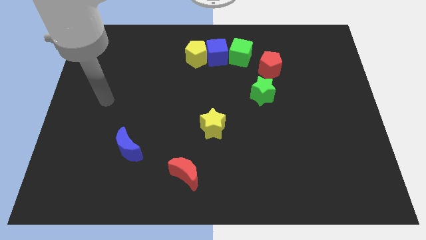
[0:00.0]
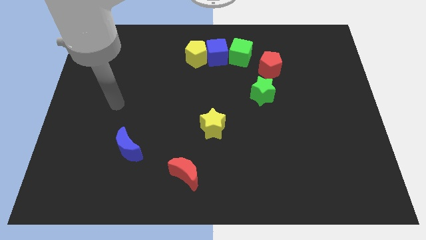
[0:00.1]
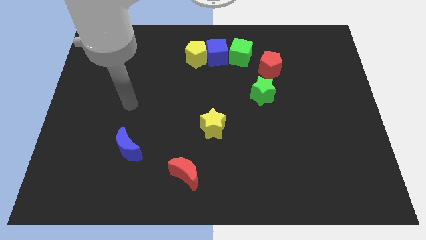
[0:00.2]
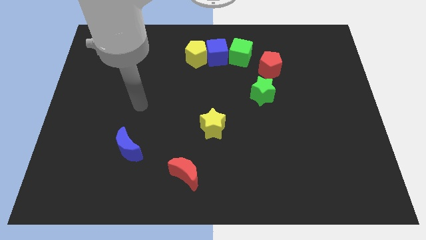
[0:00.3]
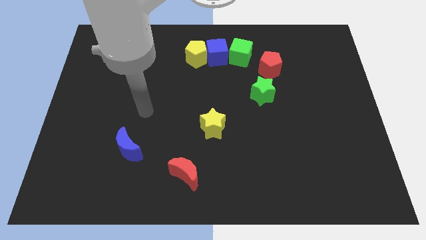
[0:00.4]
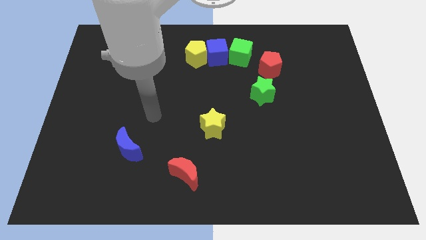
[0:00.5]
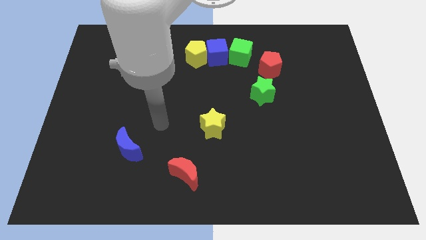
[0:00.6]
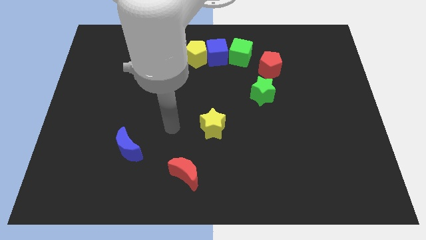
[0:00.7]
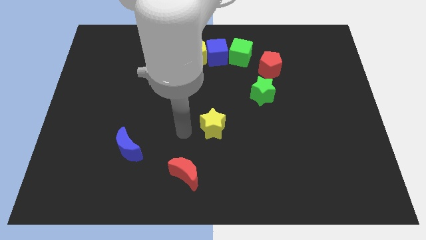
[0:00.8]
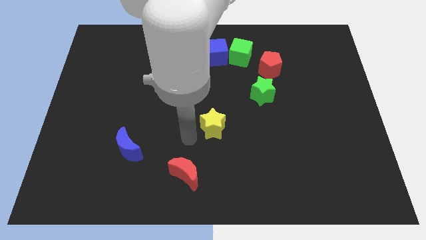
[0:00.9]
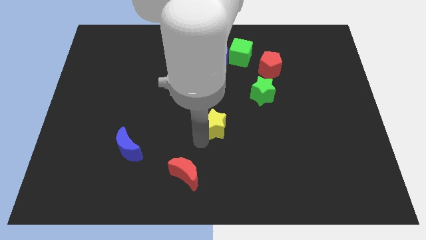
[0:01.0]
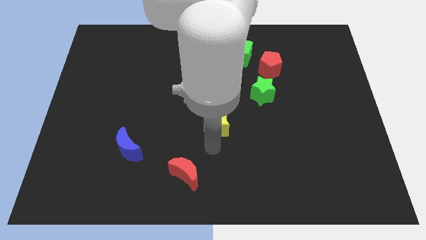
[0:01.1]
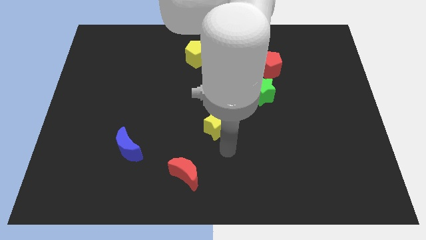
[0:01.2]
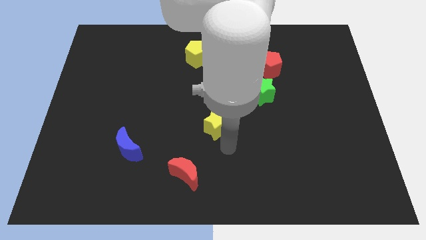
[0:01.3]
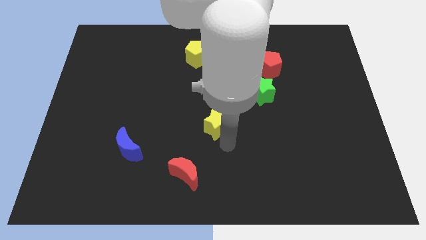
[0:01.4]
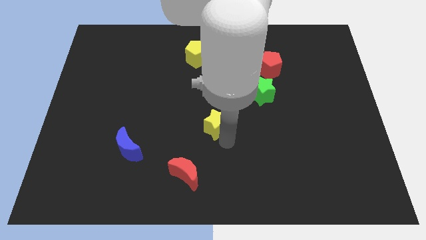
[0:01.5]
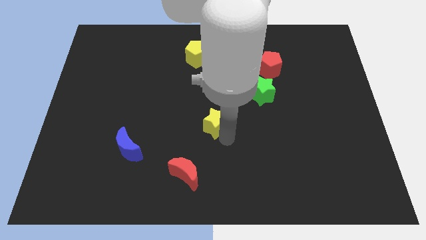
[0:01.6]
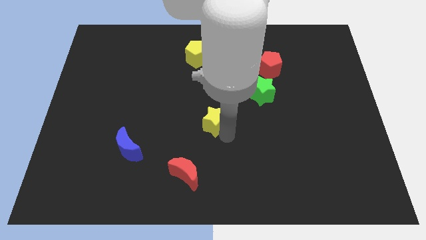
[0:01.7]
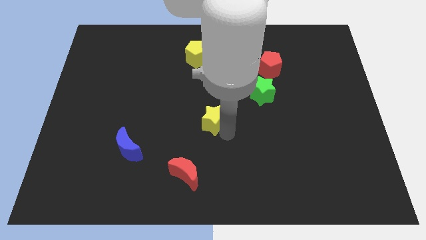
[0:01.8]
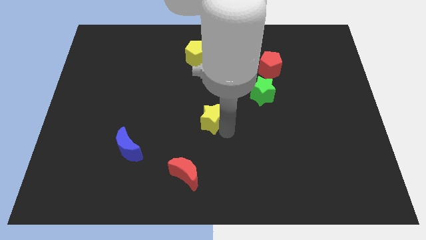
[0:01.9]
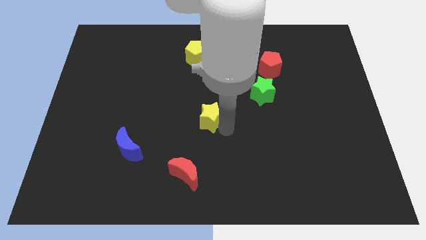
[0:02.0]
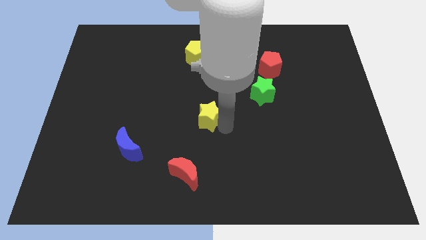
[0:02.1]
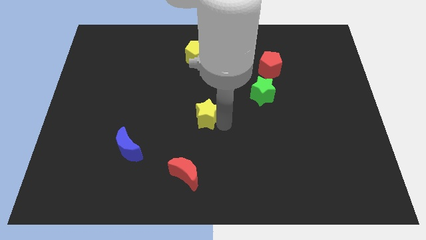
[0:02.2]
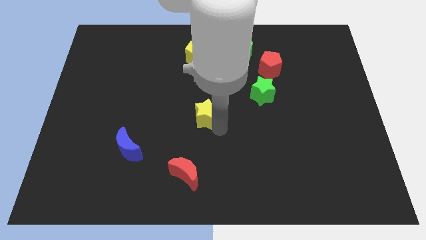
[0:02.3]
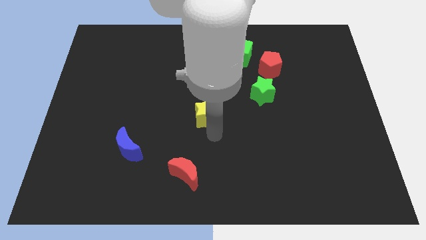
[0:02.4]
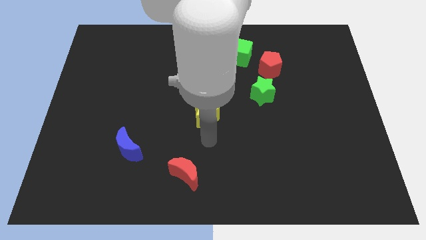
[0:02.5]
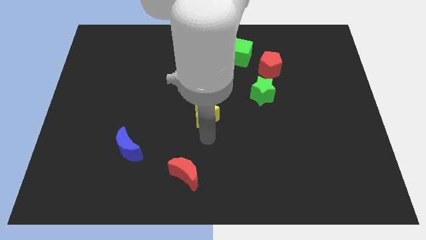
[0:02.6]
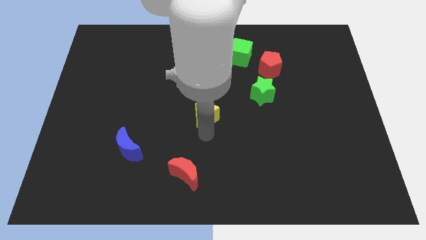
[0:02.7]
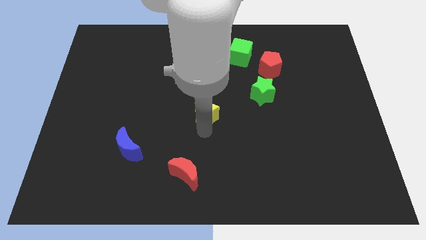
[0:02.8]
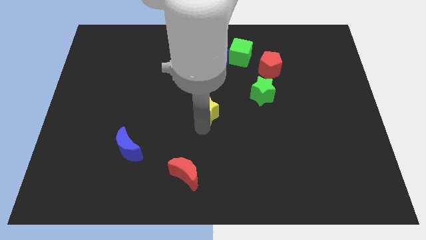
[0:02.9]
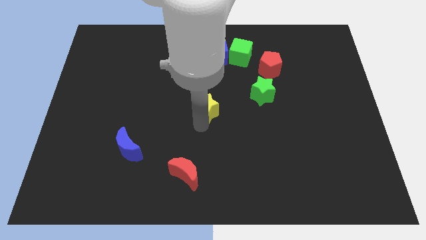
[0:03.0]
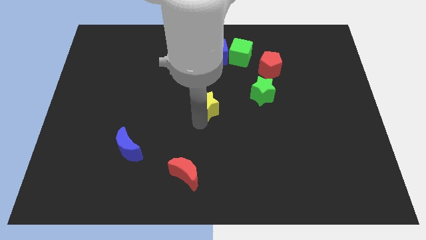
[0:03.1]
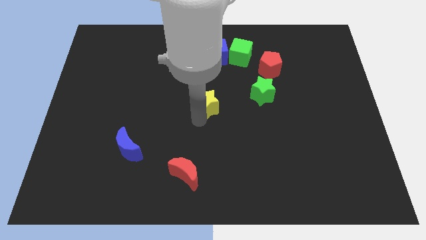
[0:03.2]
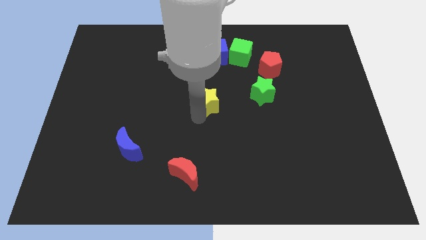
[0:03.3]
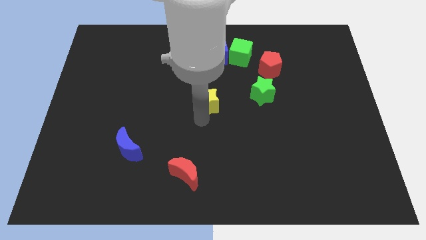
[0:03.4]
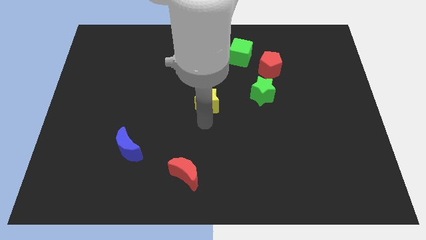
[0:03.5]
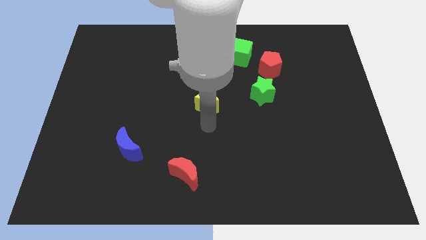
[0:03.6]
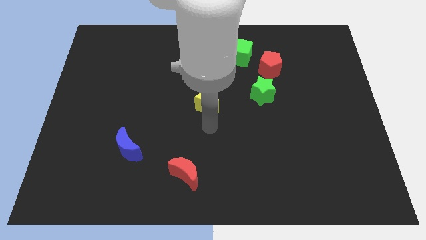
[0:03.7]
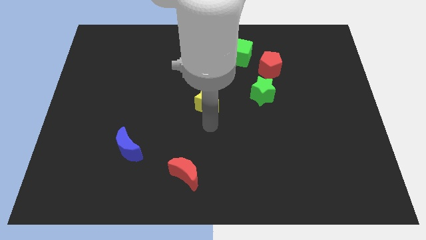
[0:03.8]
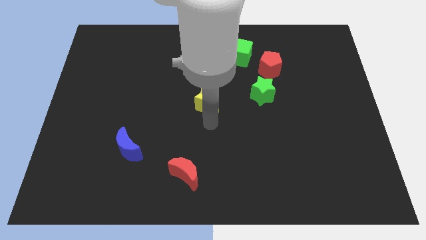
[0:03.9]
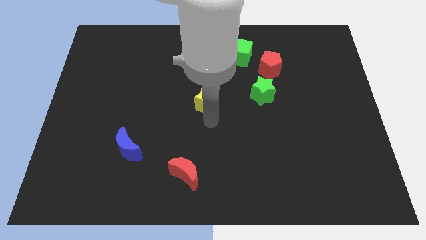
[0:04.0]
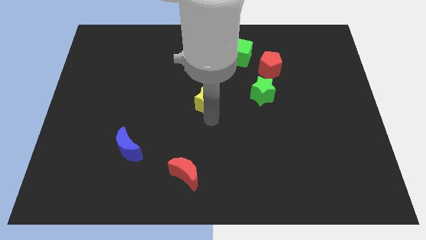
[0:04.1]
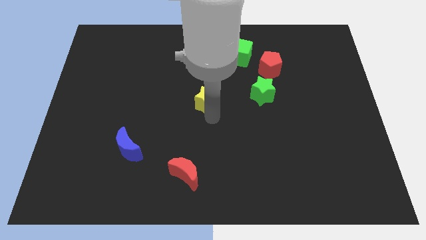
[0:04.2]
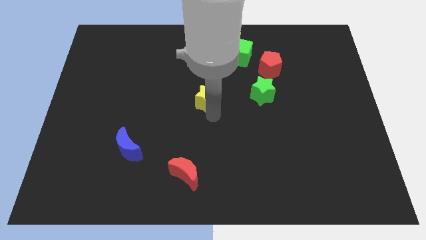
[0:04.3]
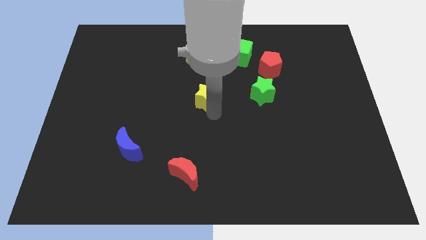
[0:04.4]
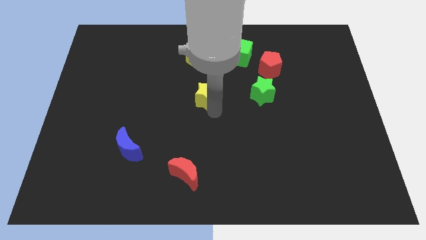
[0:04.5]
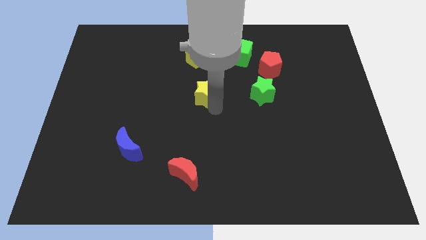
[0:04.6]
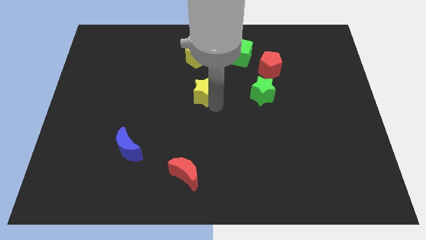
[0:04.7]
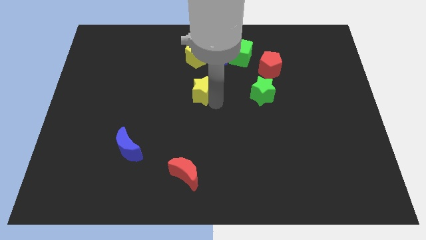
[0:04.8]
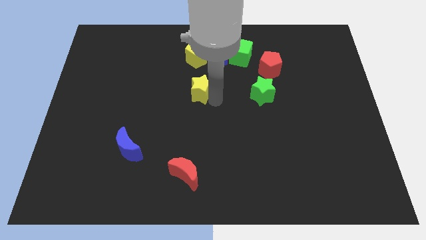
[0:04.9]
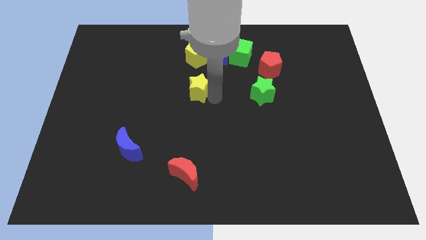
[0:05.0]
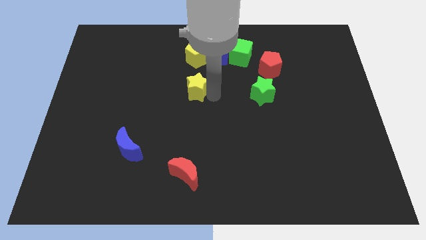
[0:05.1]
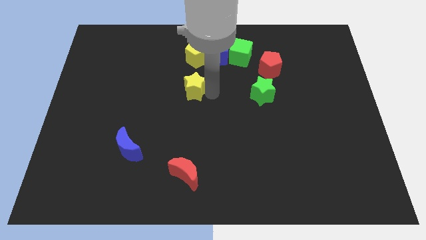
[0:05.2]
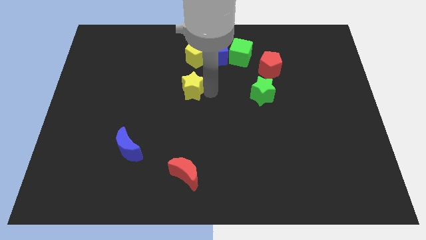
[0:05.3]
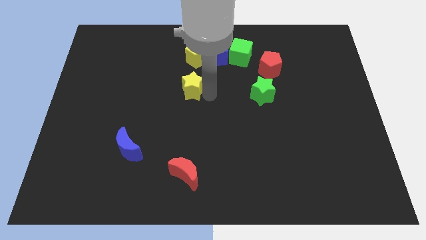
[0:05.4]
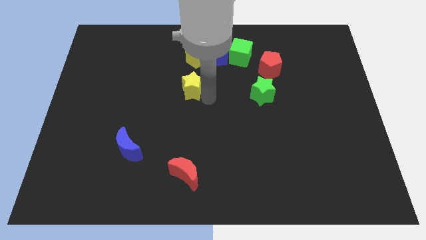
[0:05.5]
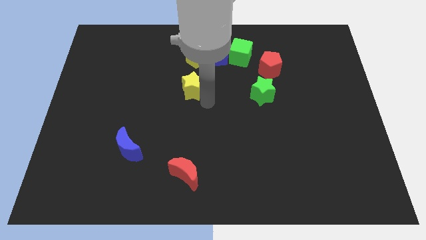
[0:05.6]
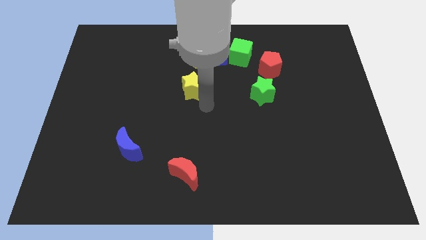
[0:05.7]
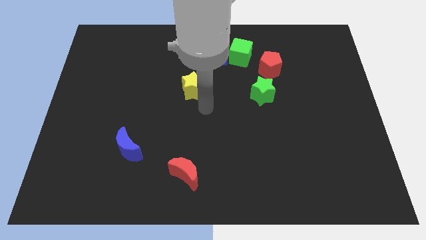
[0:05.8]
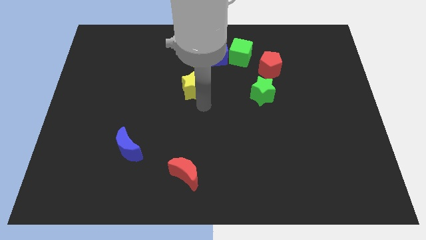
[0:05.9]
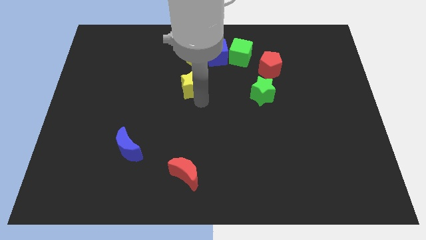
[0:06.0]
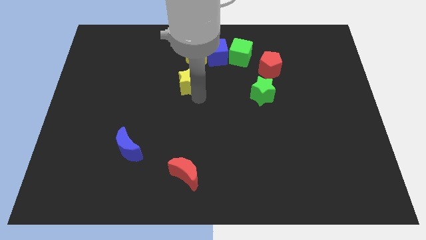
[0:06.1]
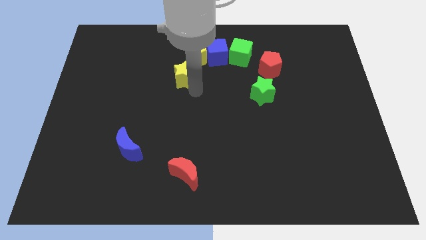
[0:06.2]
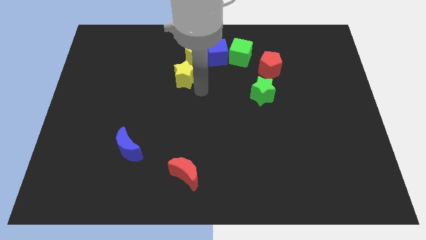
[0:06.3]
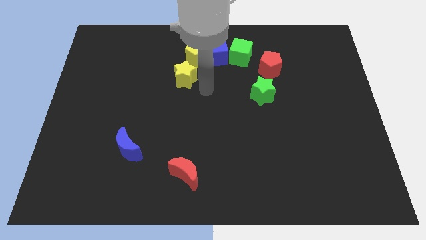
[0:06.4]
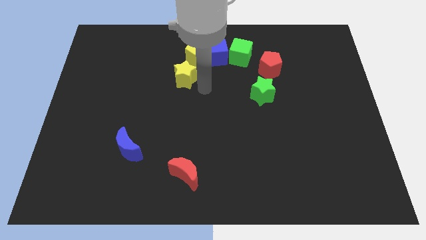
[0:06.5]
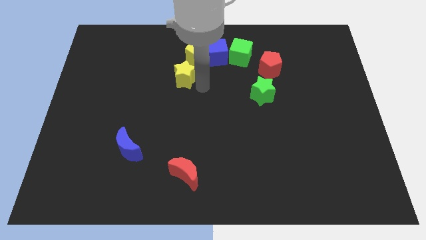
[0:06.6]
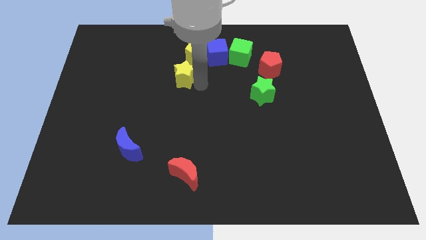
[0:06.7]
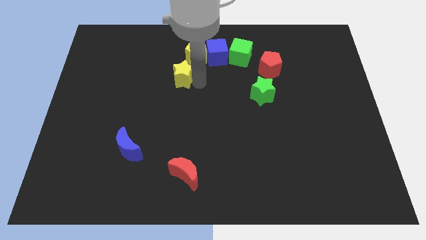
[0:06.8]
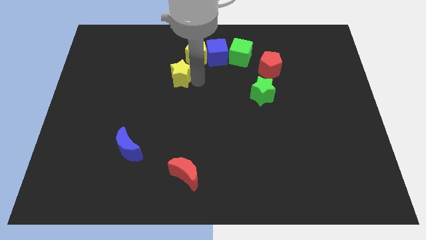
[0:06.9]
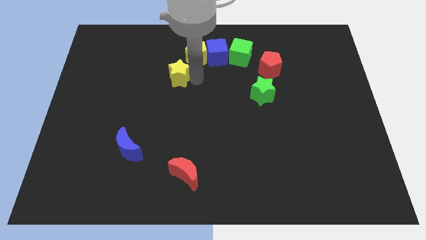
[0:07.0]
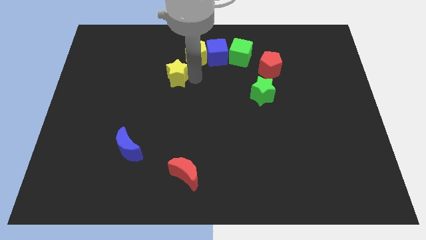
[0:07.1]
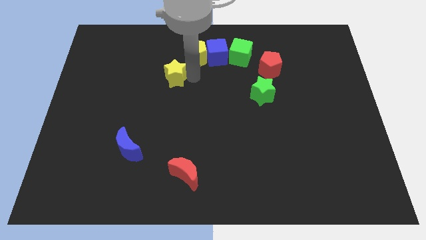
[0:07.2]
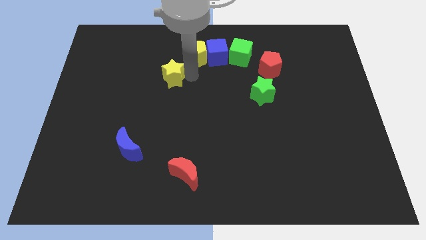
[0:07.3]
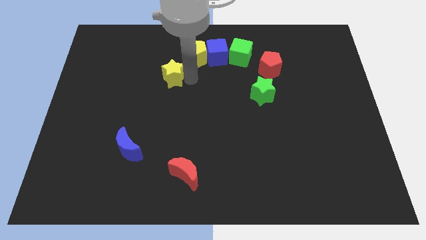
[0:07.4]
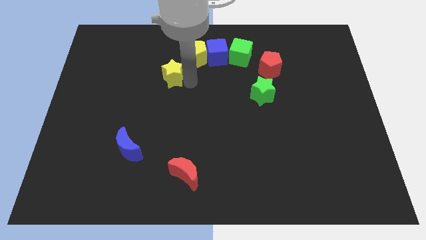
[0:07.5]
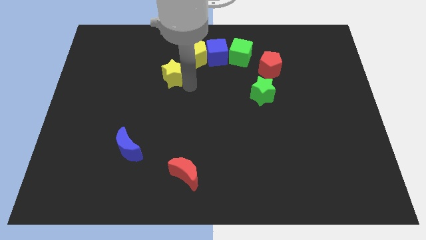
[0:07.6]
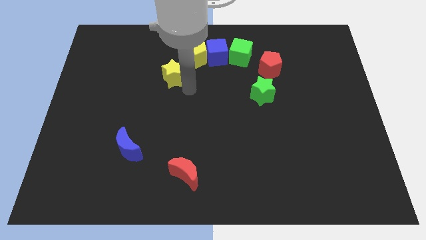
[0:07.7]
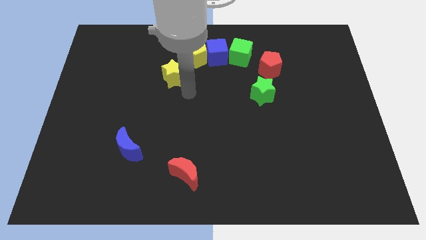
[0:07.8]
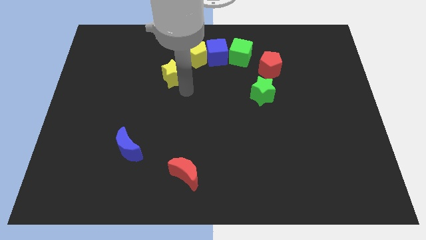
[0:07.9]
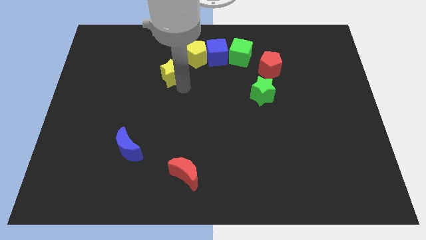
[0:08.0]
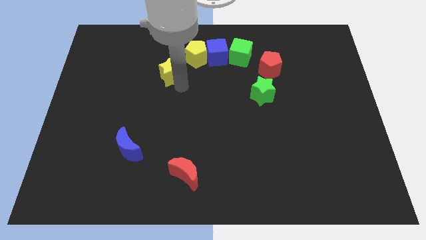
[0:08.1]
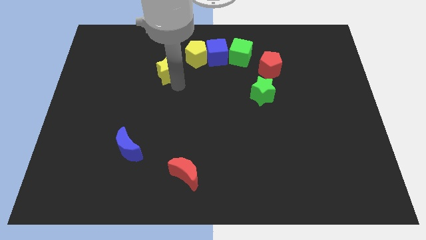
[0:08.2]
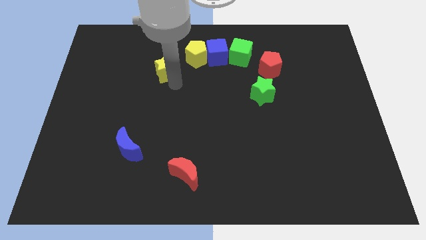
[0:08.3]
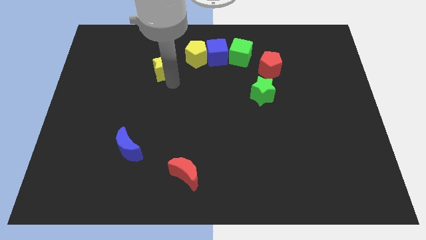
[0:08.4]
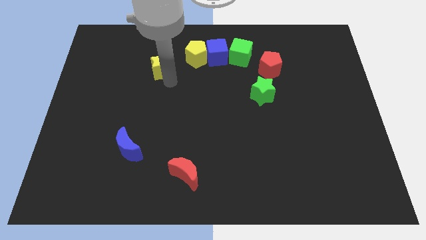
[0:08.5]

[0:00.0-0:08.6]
put the yellow star to the left of the yellow pentagon
